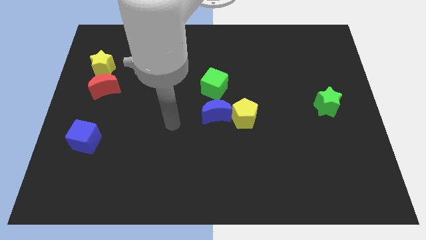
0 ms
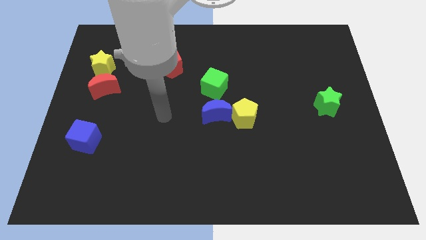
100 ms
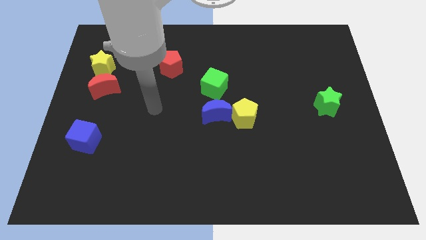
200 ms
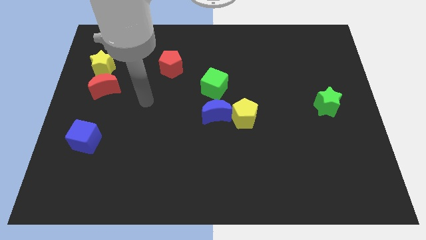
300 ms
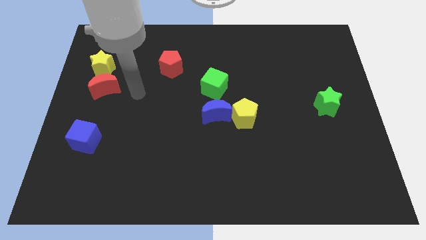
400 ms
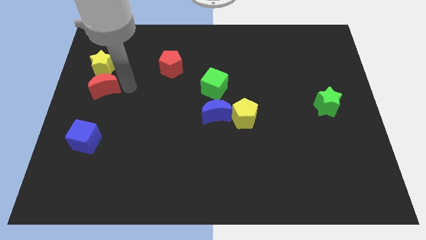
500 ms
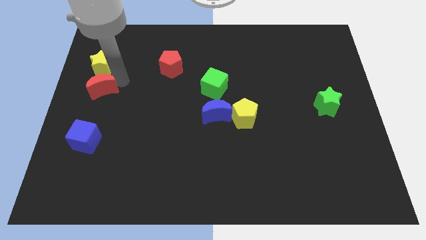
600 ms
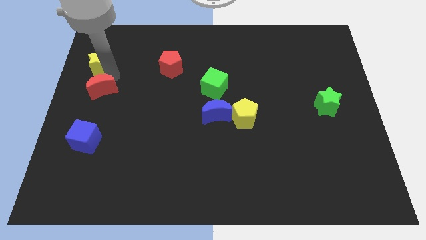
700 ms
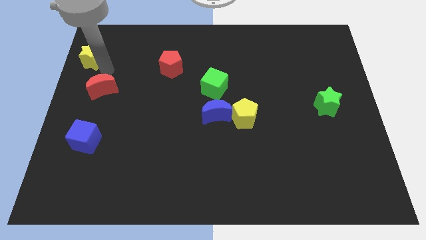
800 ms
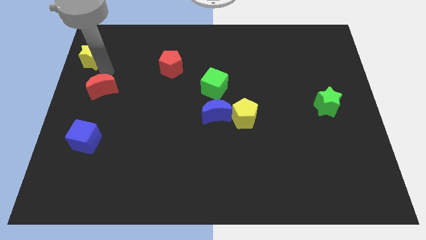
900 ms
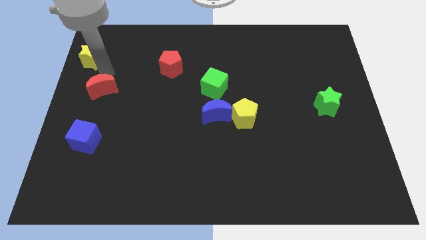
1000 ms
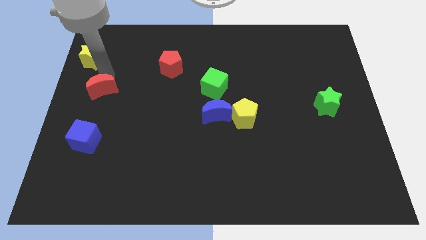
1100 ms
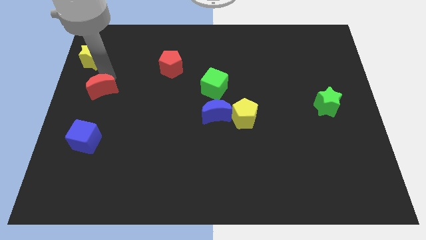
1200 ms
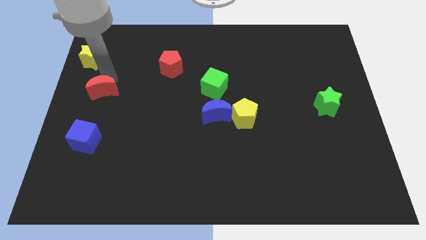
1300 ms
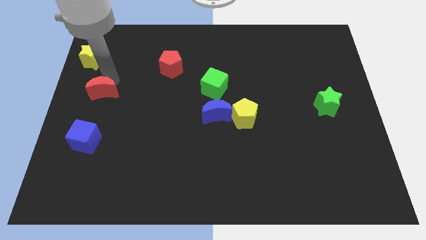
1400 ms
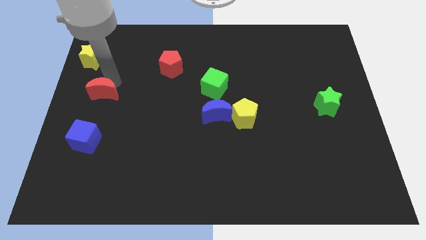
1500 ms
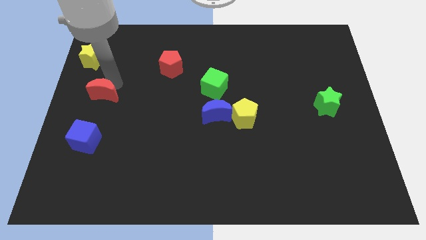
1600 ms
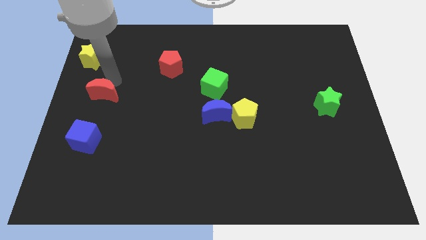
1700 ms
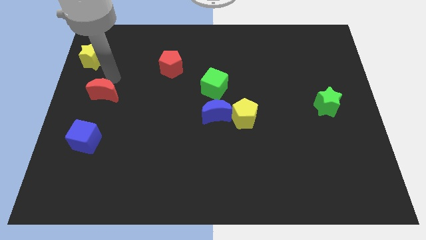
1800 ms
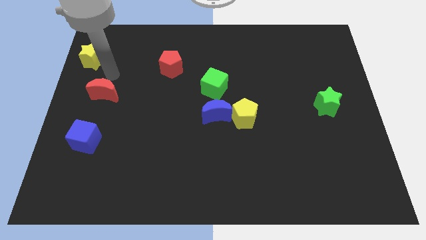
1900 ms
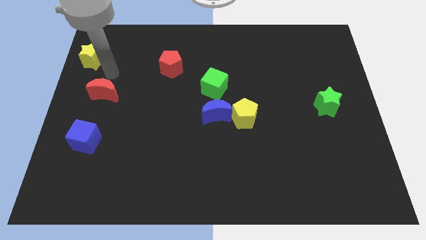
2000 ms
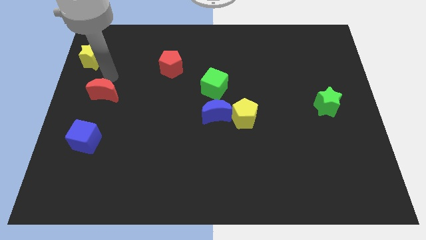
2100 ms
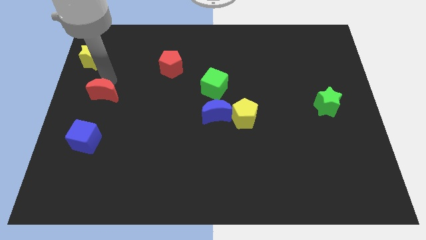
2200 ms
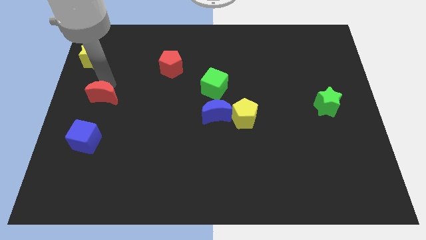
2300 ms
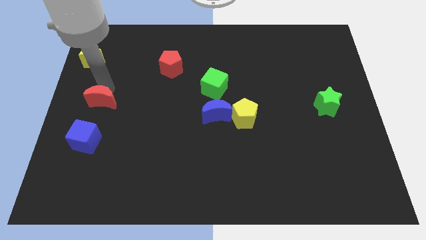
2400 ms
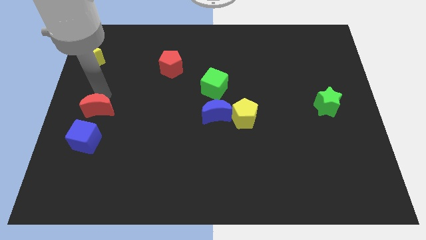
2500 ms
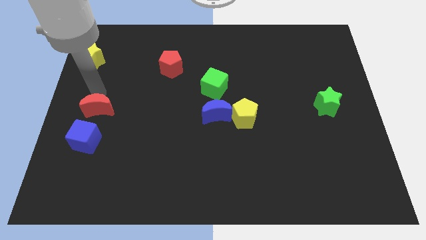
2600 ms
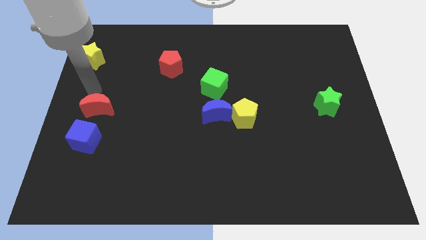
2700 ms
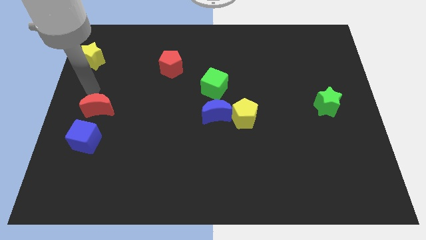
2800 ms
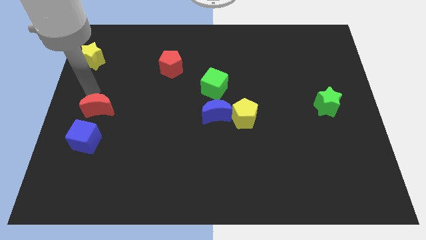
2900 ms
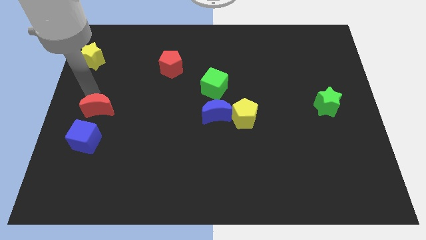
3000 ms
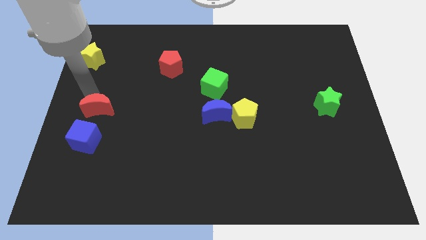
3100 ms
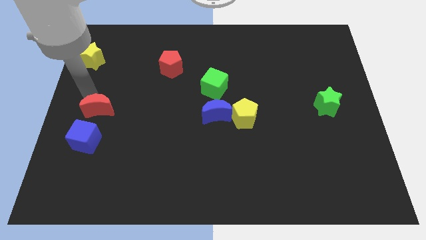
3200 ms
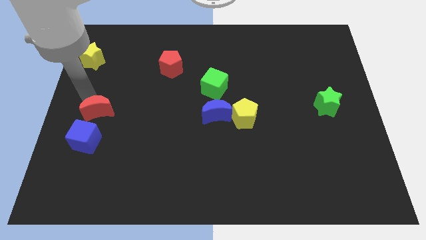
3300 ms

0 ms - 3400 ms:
push the red moon down a little bit

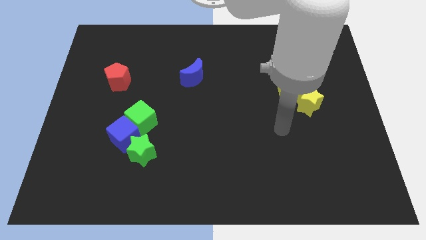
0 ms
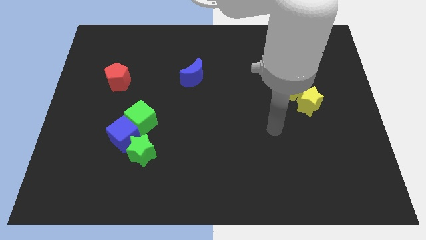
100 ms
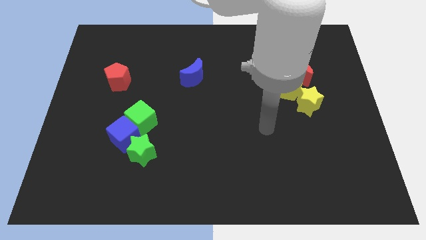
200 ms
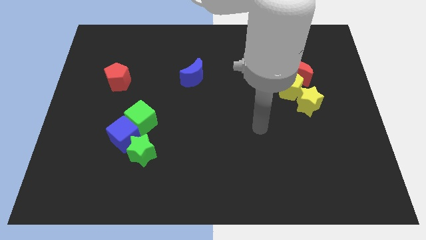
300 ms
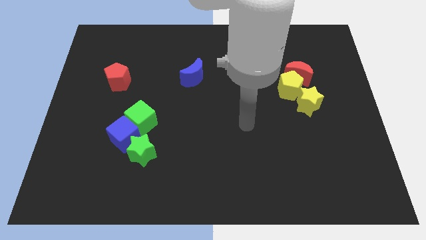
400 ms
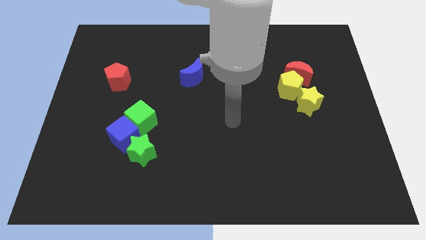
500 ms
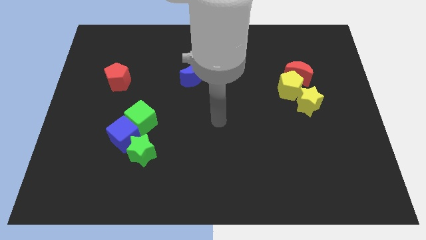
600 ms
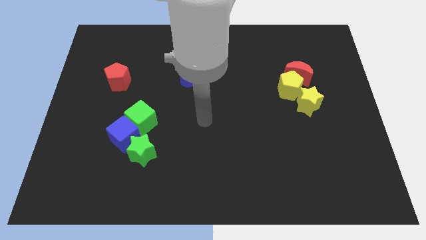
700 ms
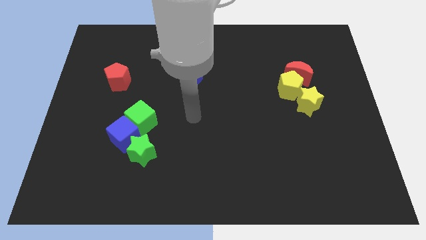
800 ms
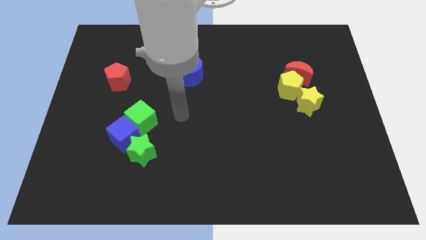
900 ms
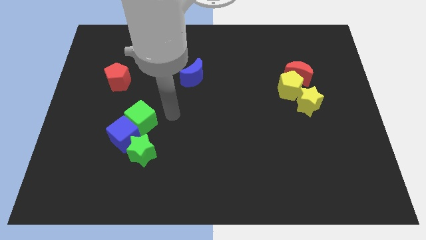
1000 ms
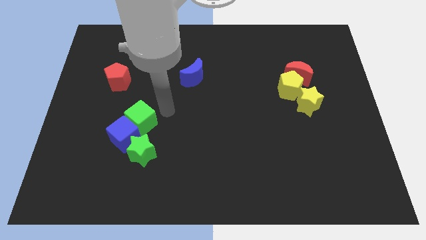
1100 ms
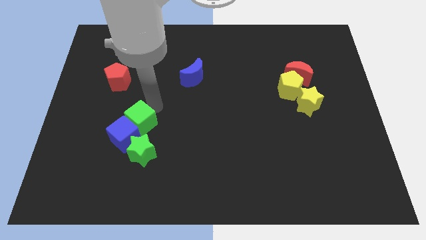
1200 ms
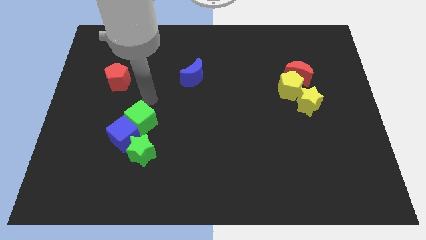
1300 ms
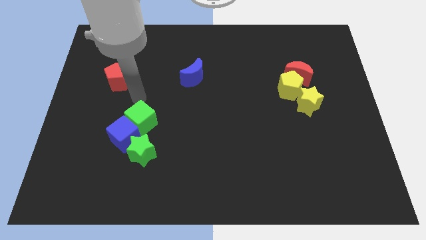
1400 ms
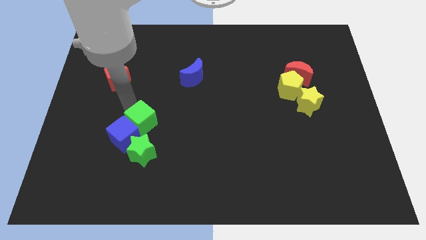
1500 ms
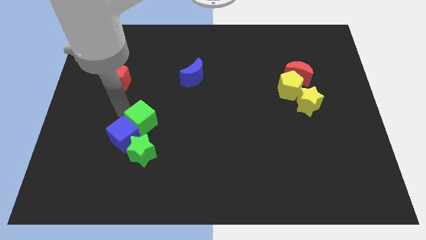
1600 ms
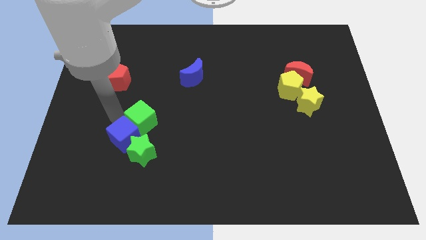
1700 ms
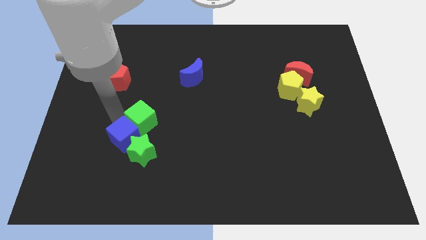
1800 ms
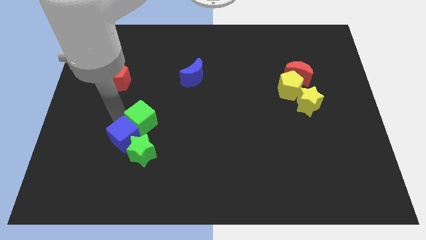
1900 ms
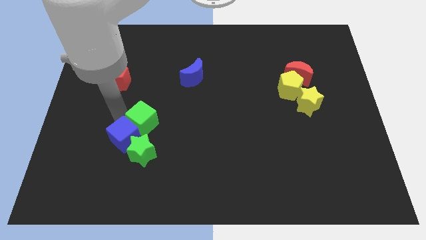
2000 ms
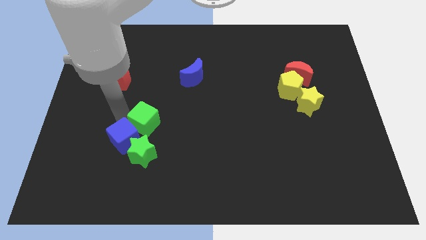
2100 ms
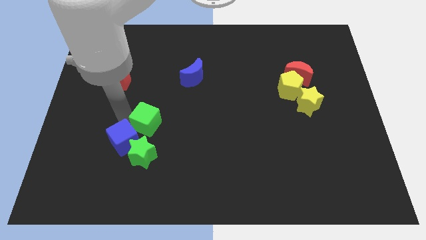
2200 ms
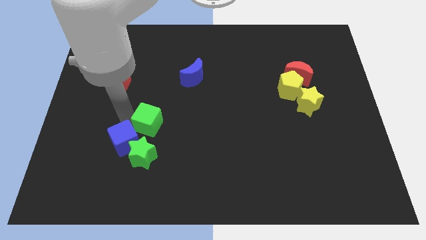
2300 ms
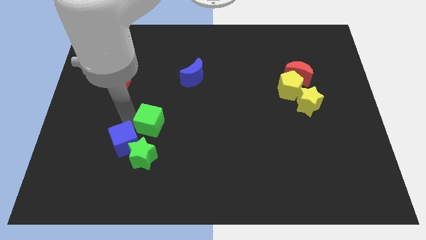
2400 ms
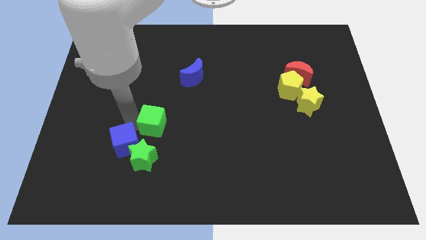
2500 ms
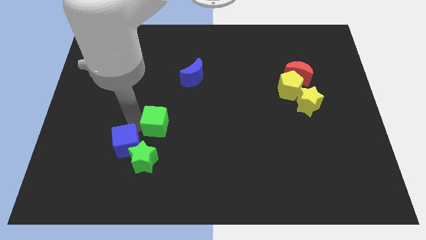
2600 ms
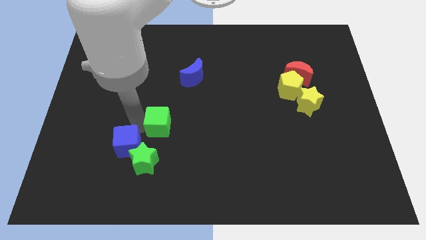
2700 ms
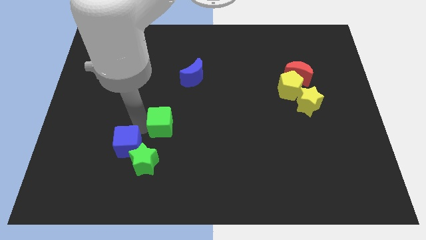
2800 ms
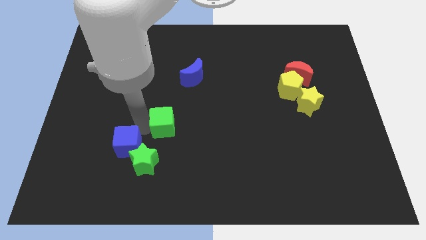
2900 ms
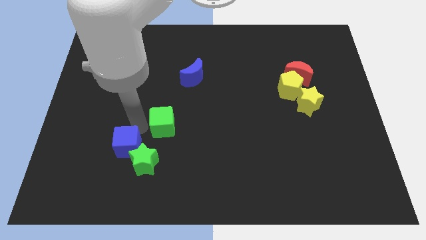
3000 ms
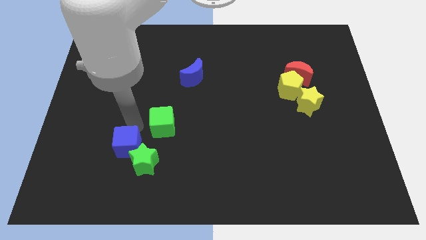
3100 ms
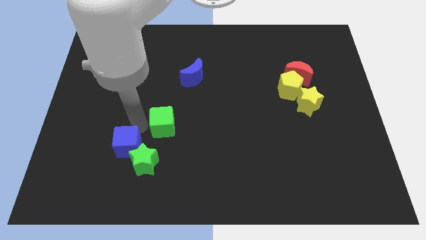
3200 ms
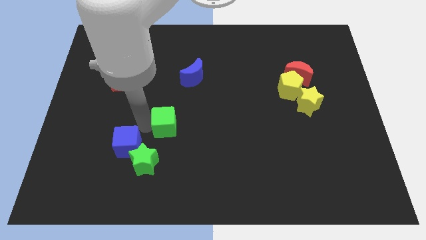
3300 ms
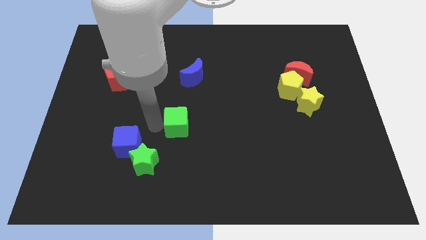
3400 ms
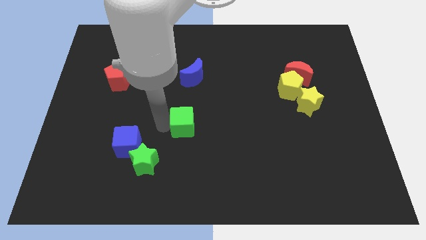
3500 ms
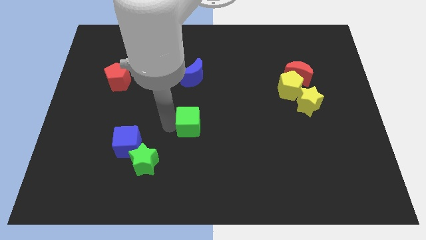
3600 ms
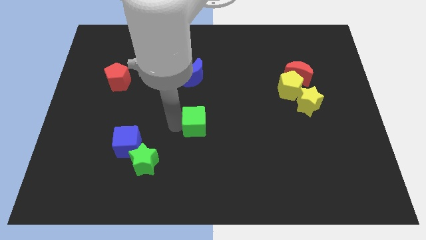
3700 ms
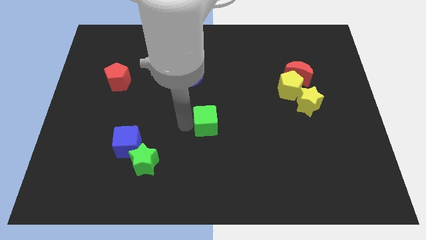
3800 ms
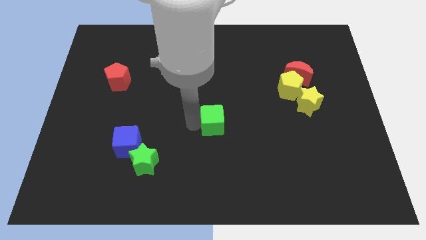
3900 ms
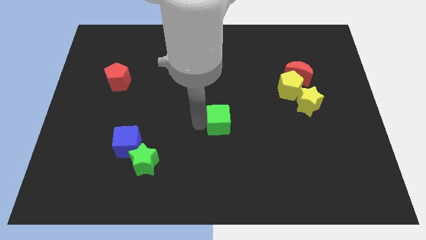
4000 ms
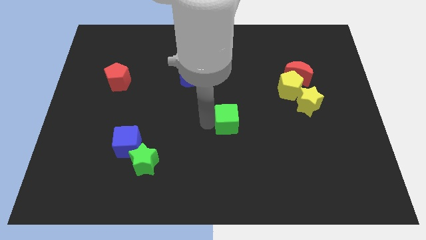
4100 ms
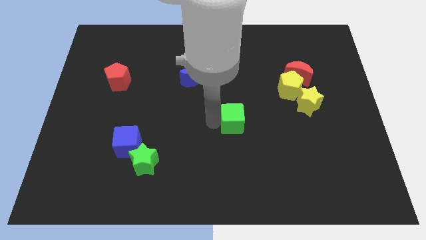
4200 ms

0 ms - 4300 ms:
push the green cube right

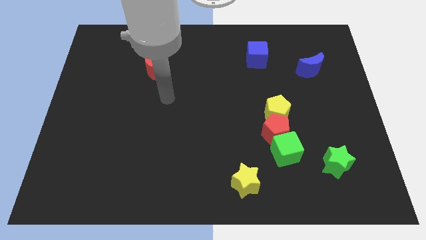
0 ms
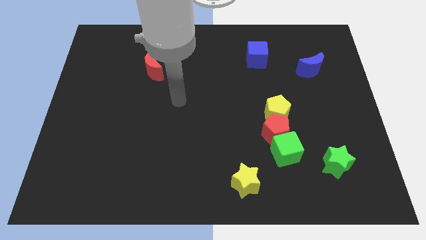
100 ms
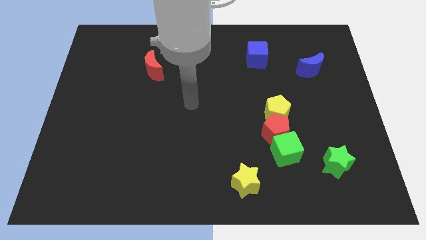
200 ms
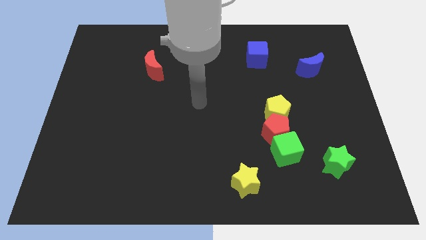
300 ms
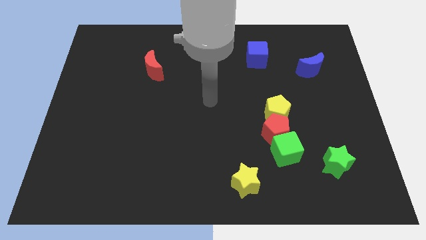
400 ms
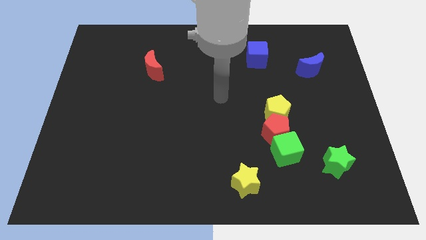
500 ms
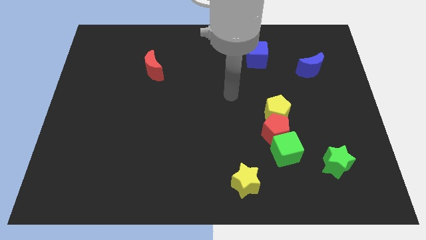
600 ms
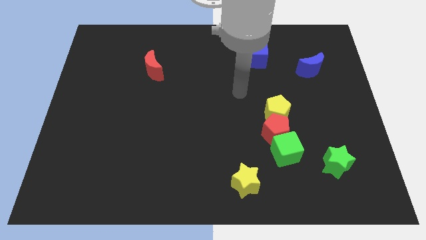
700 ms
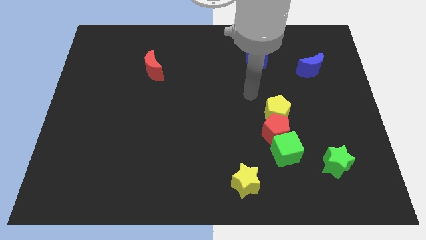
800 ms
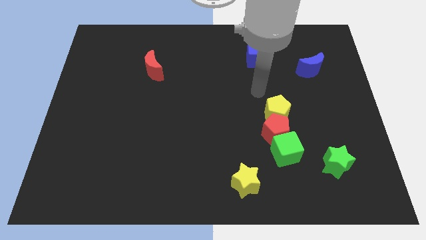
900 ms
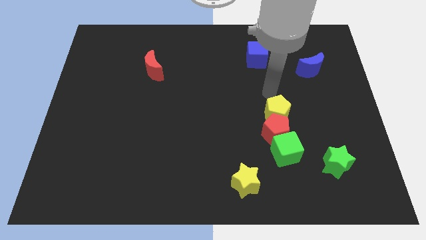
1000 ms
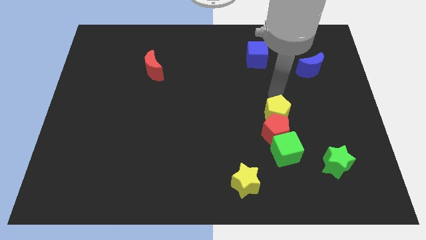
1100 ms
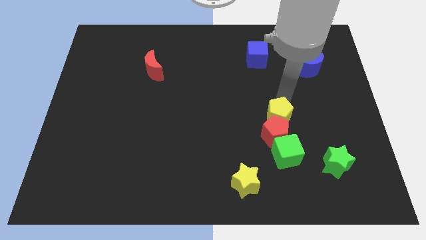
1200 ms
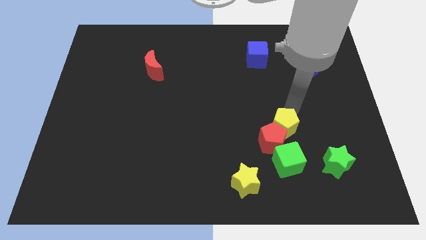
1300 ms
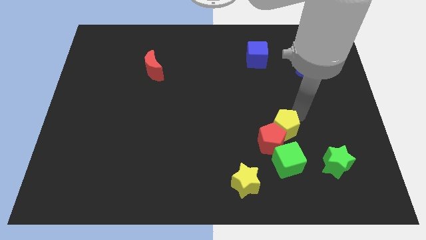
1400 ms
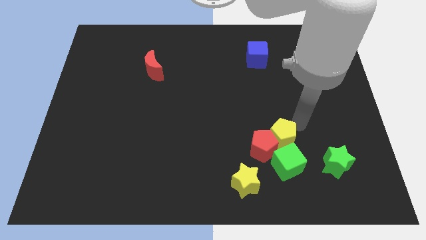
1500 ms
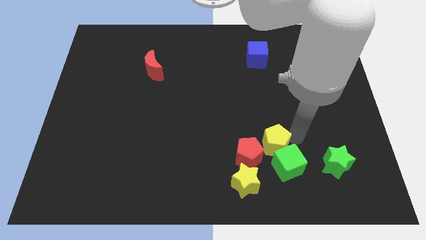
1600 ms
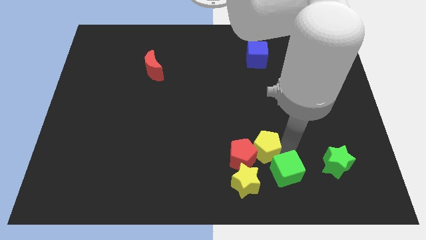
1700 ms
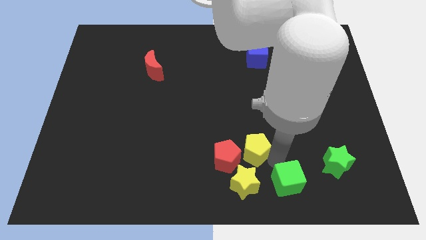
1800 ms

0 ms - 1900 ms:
slightly push the red pentagon to the left
